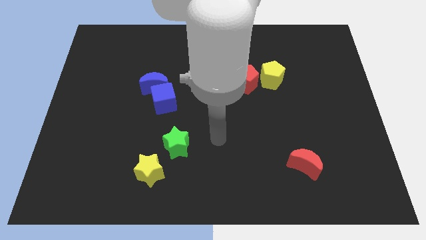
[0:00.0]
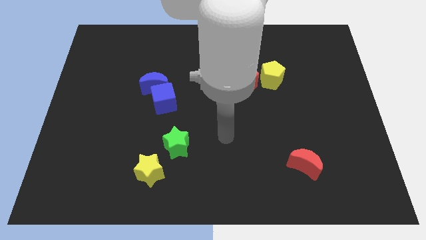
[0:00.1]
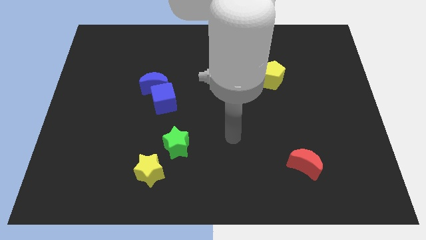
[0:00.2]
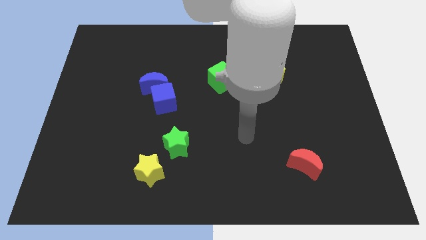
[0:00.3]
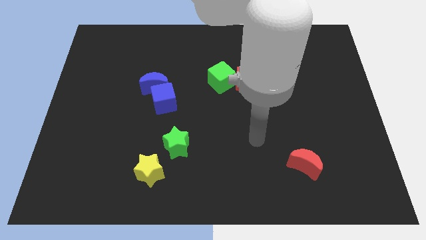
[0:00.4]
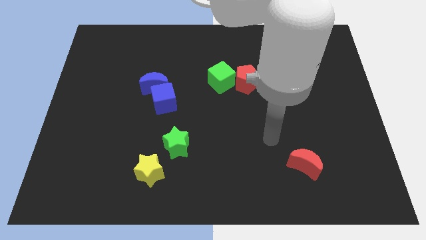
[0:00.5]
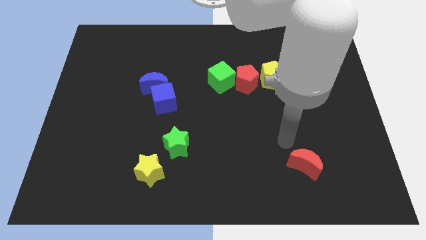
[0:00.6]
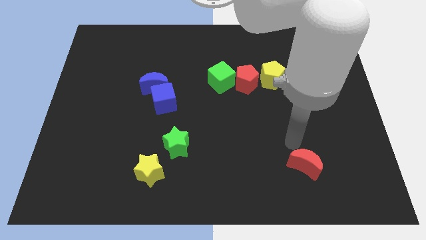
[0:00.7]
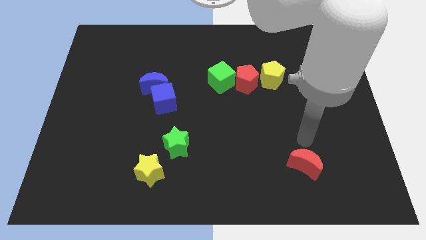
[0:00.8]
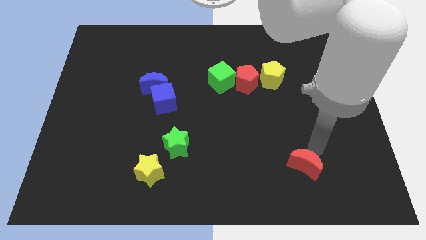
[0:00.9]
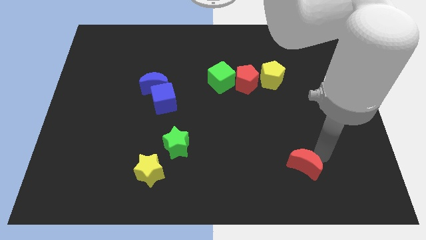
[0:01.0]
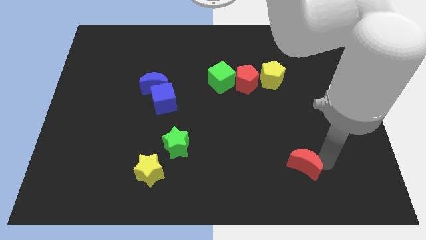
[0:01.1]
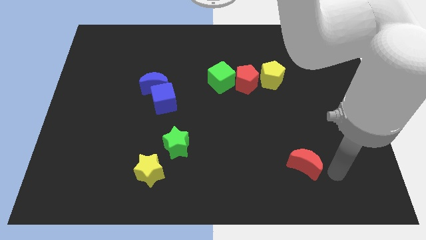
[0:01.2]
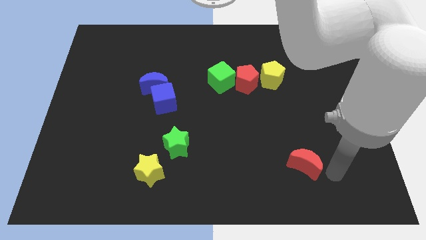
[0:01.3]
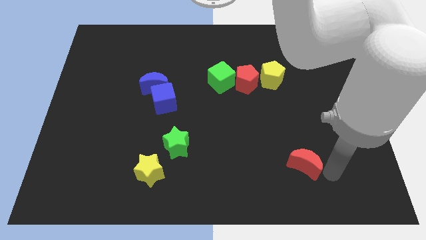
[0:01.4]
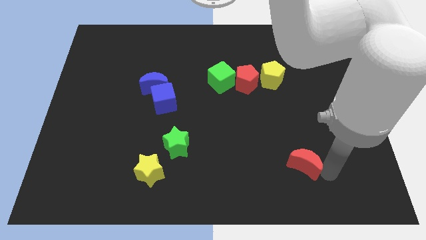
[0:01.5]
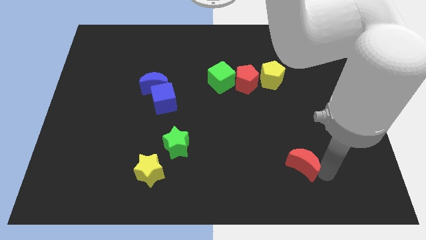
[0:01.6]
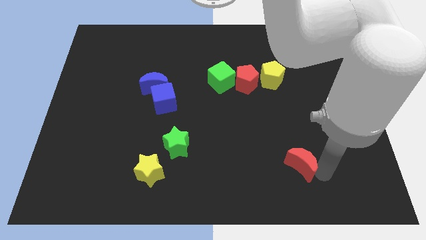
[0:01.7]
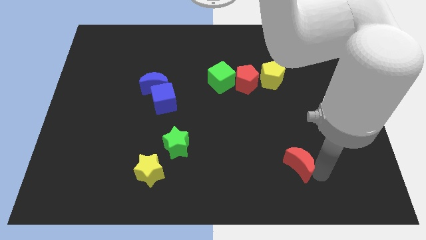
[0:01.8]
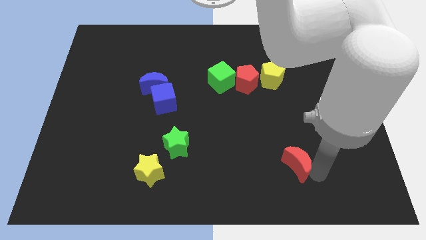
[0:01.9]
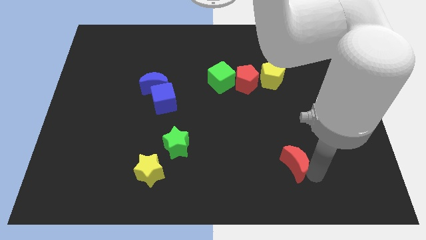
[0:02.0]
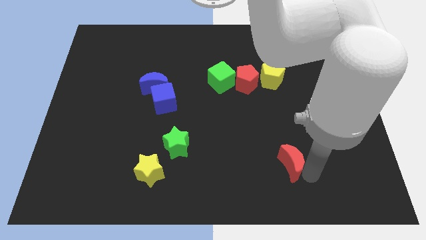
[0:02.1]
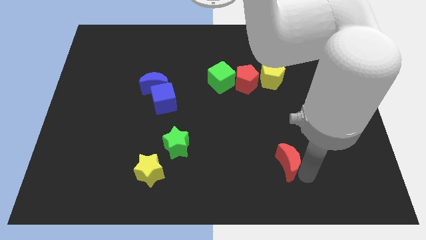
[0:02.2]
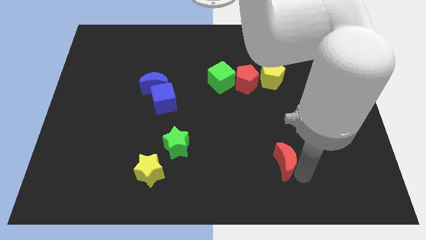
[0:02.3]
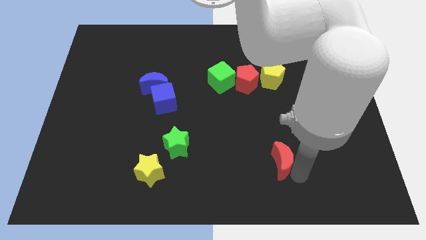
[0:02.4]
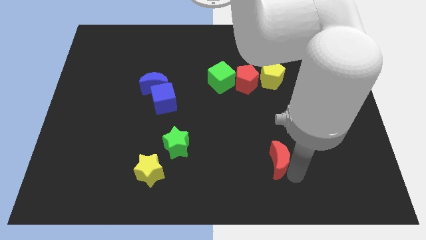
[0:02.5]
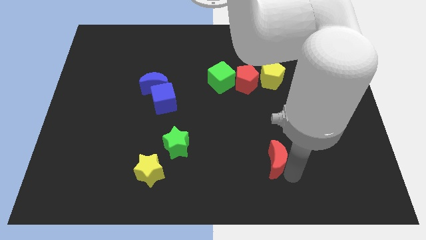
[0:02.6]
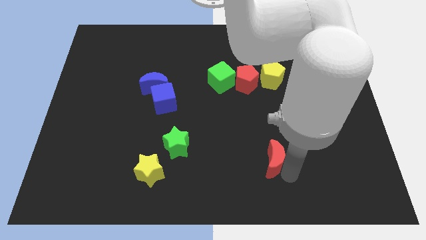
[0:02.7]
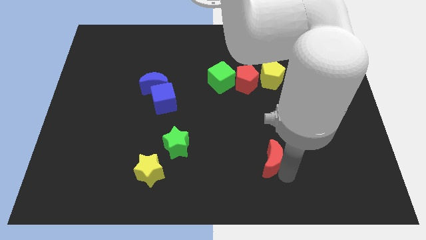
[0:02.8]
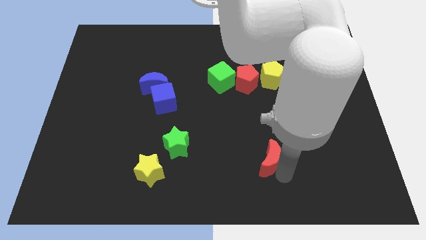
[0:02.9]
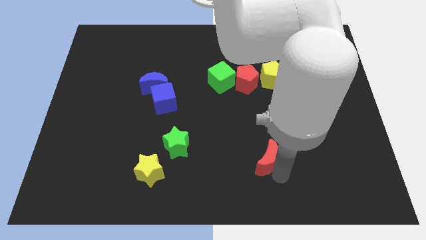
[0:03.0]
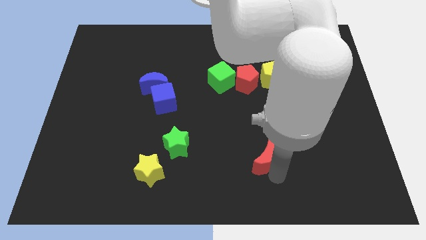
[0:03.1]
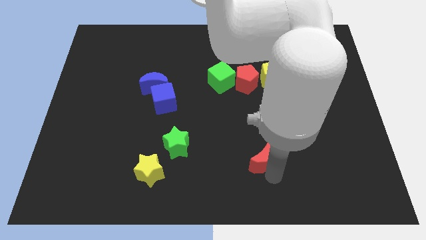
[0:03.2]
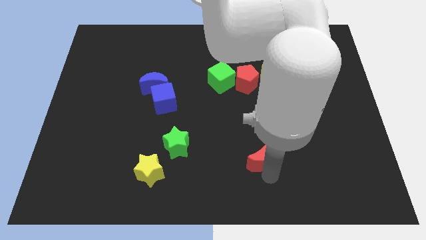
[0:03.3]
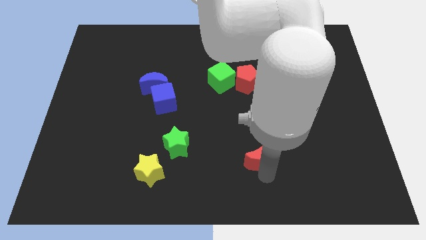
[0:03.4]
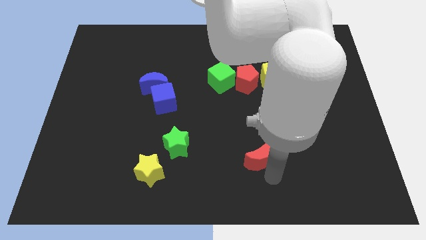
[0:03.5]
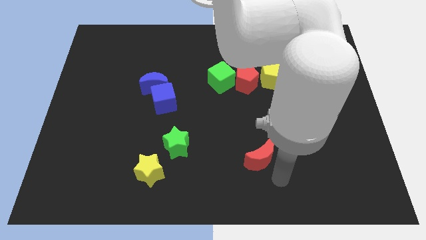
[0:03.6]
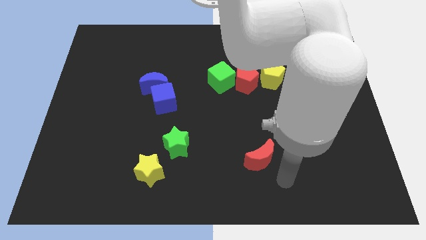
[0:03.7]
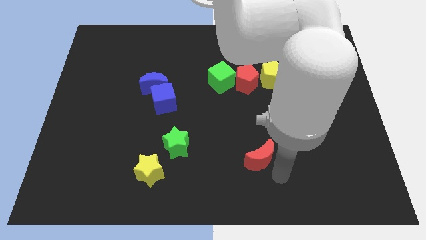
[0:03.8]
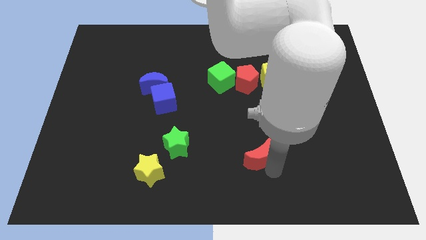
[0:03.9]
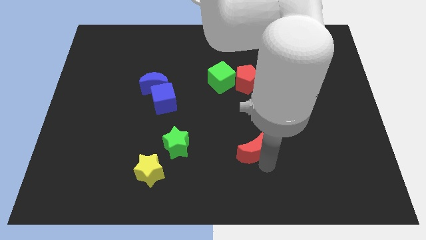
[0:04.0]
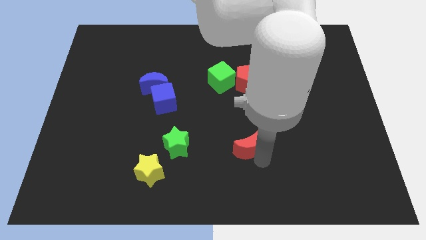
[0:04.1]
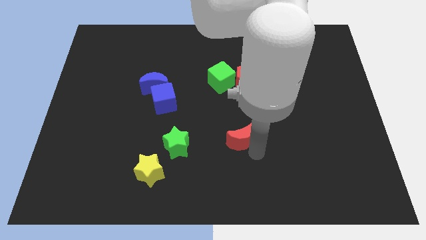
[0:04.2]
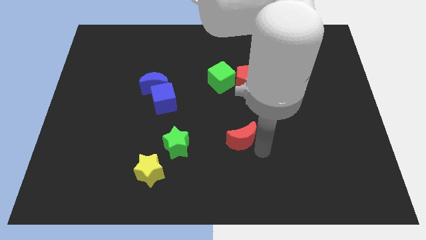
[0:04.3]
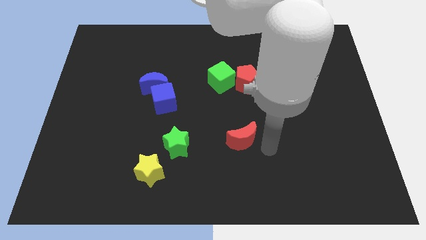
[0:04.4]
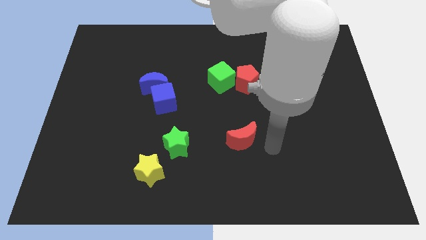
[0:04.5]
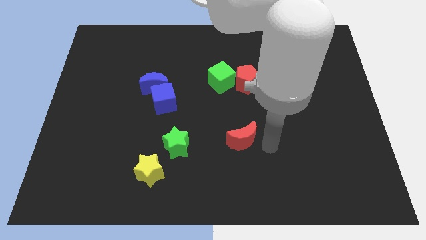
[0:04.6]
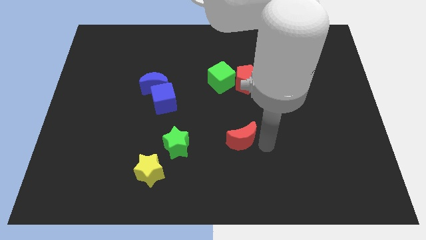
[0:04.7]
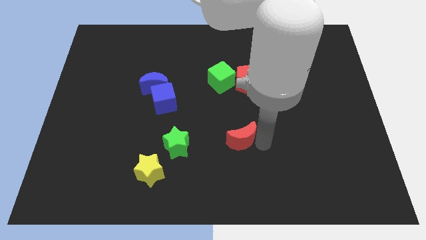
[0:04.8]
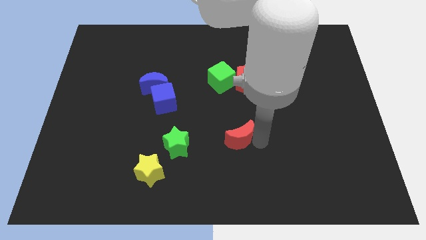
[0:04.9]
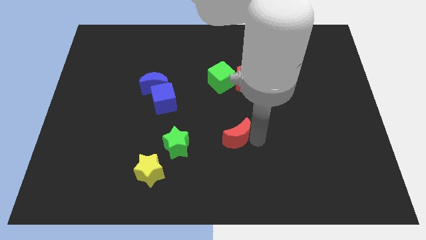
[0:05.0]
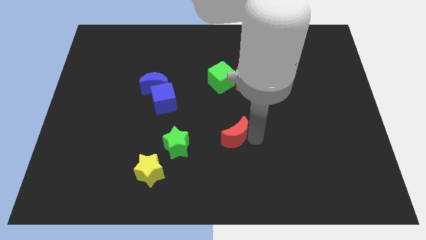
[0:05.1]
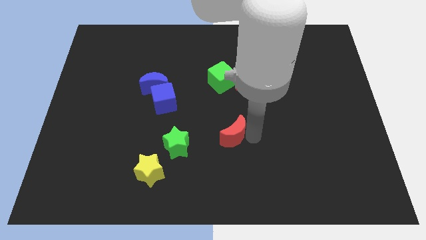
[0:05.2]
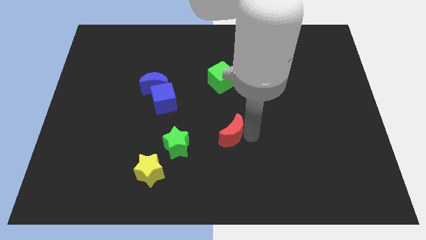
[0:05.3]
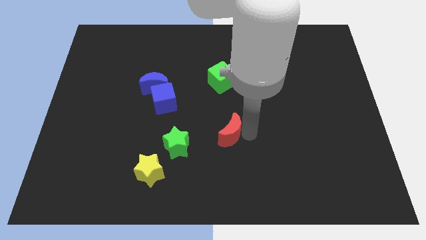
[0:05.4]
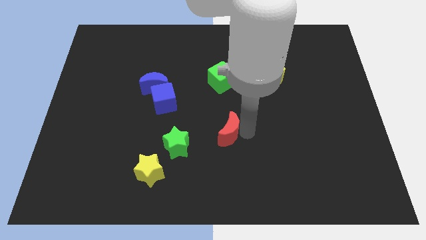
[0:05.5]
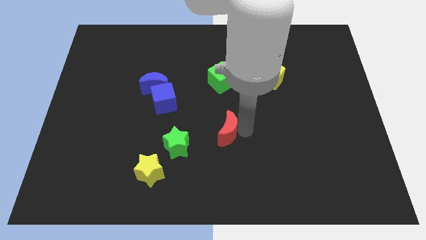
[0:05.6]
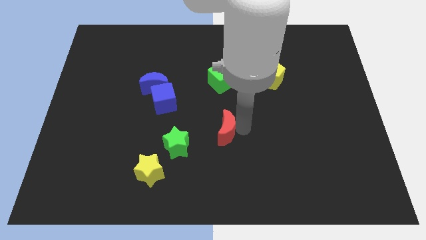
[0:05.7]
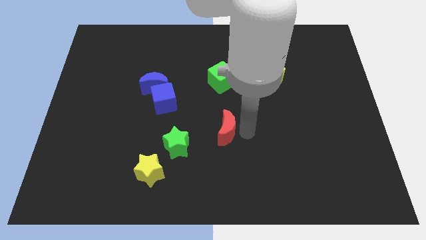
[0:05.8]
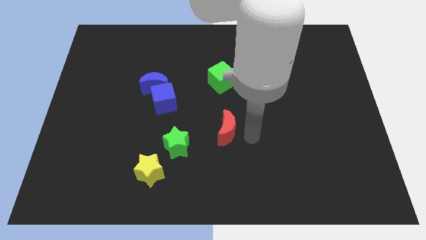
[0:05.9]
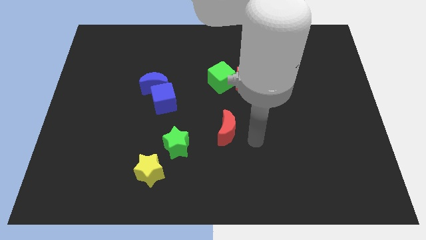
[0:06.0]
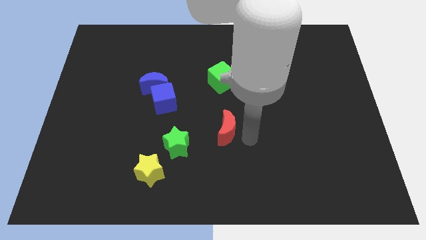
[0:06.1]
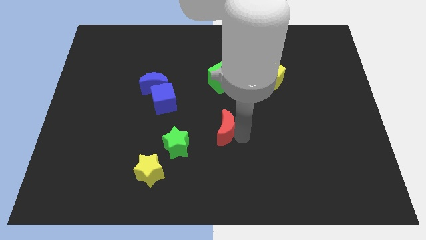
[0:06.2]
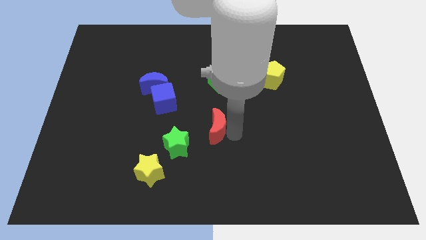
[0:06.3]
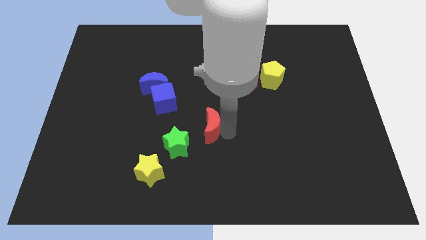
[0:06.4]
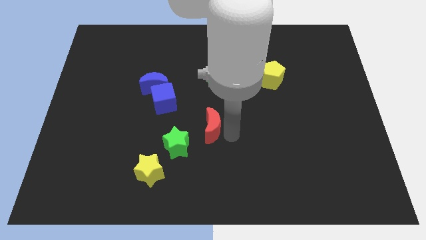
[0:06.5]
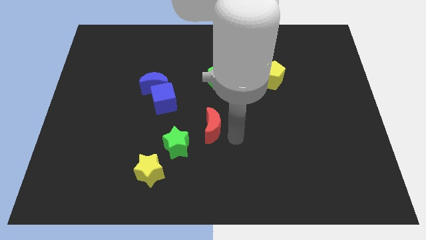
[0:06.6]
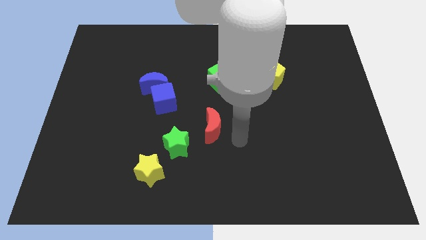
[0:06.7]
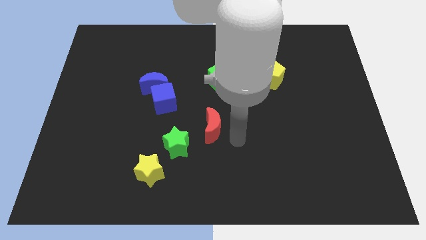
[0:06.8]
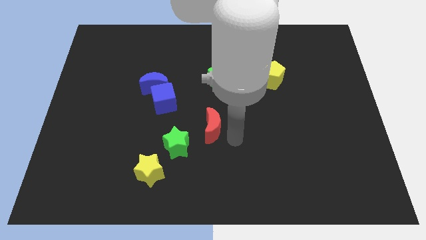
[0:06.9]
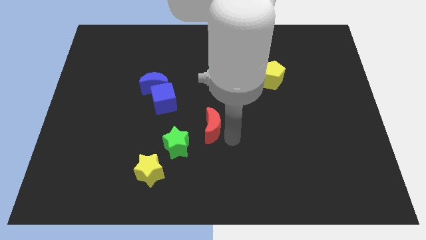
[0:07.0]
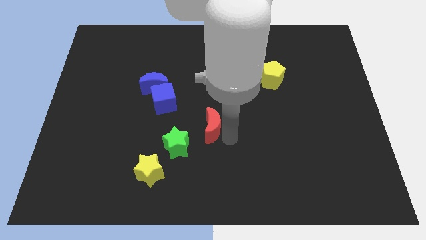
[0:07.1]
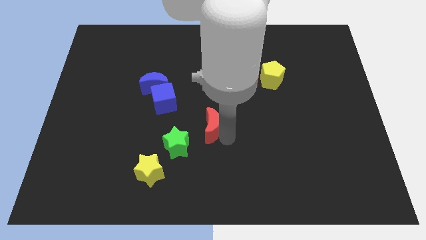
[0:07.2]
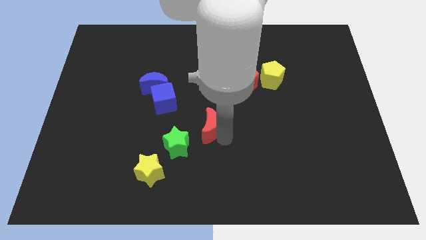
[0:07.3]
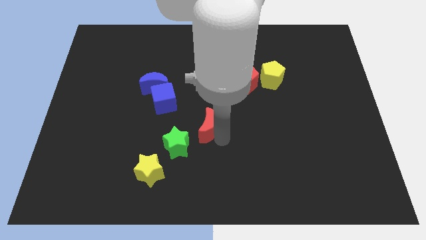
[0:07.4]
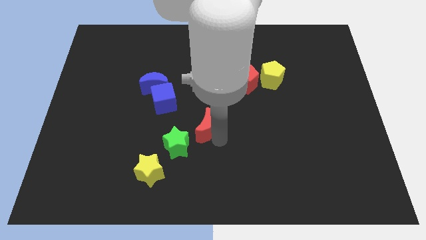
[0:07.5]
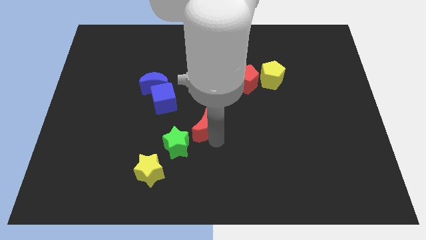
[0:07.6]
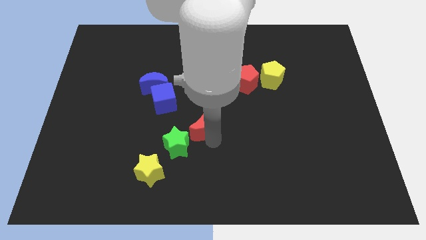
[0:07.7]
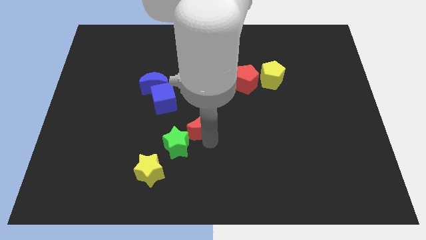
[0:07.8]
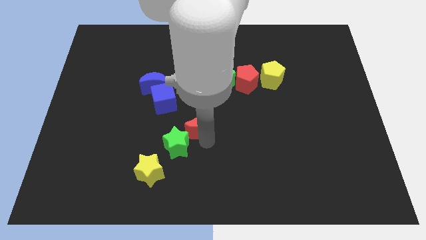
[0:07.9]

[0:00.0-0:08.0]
move the red moon to the top side of the green star

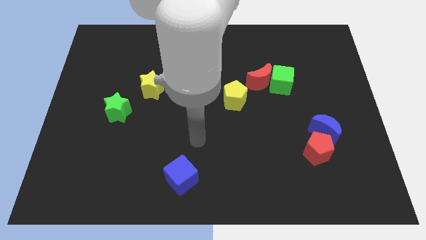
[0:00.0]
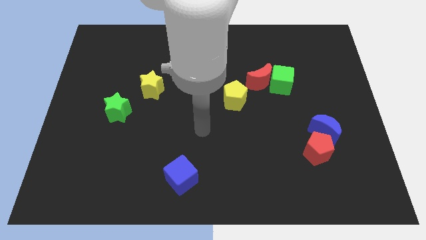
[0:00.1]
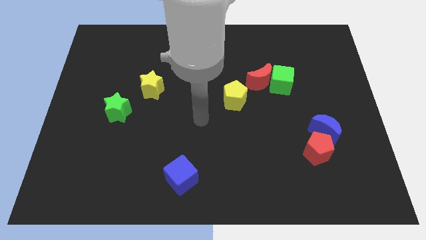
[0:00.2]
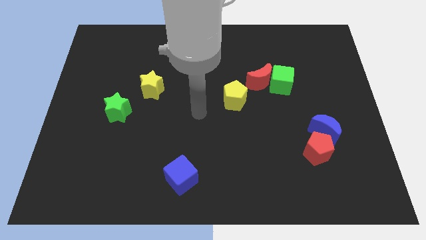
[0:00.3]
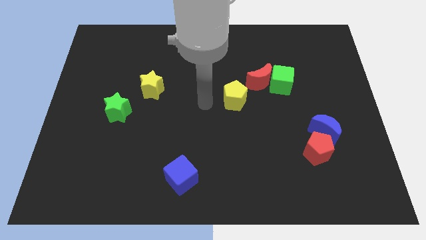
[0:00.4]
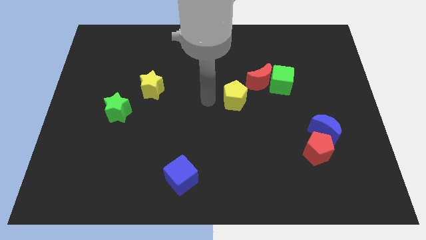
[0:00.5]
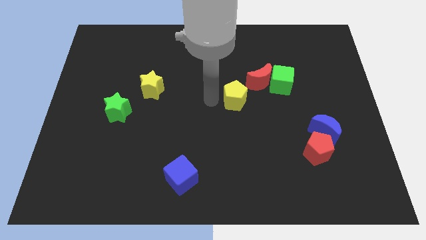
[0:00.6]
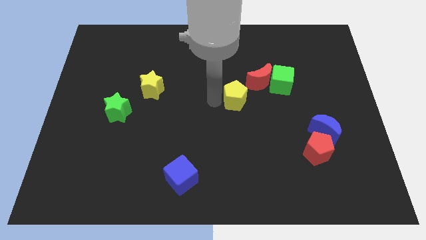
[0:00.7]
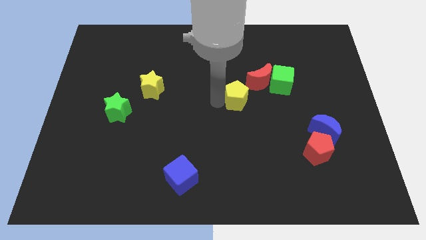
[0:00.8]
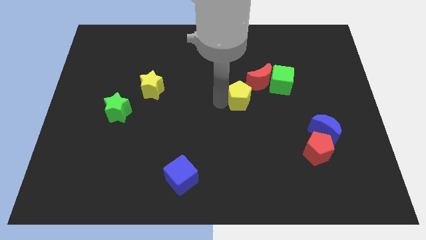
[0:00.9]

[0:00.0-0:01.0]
move the yellow pentagon to the bottom left of the green cube
